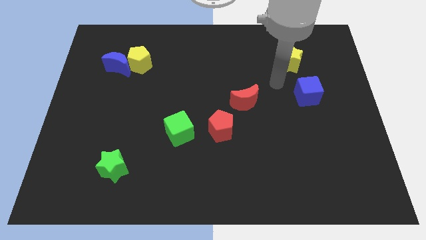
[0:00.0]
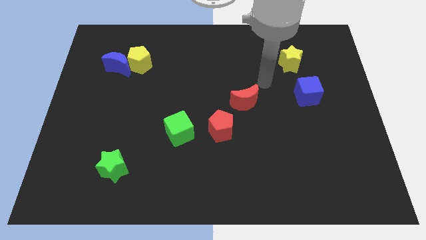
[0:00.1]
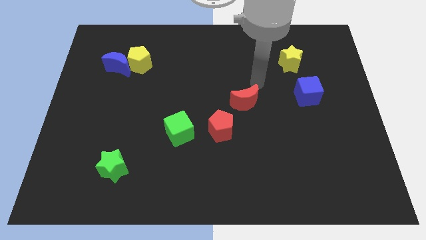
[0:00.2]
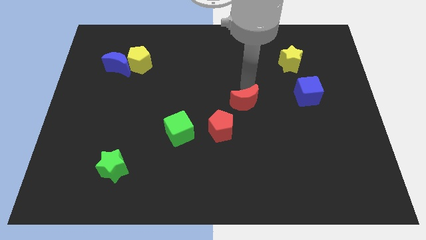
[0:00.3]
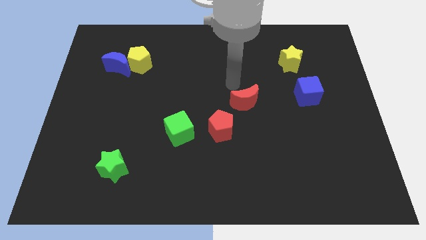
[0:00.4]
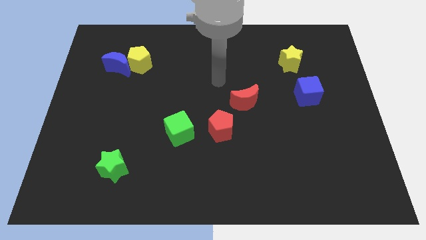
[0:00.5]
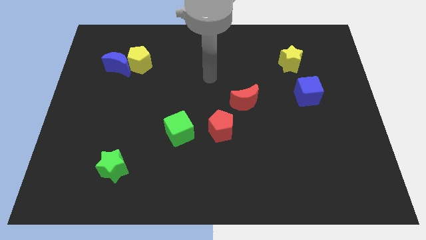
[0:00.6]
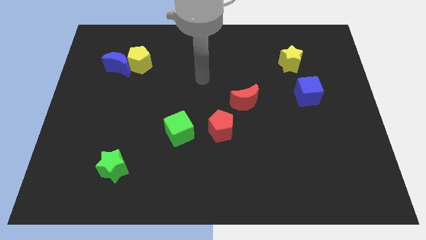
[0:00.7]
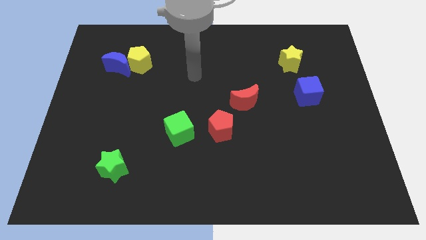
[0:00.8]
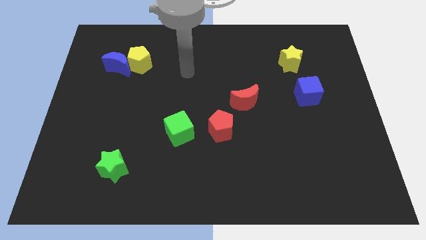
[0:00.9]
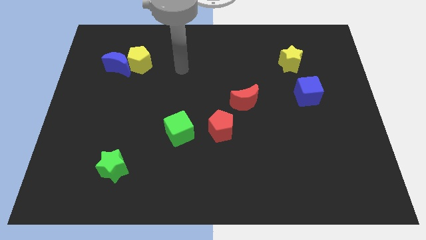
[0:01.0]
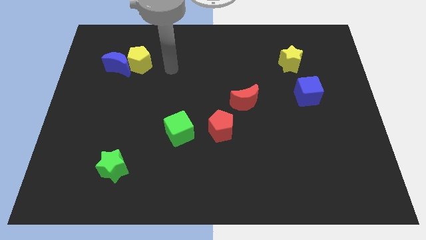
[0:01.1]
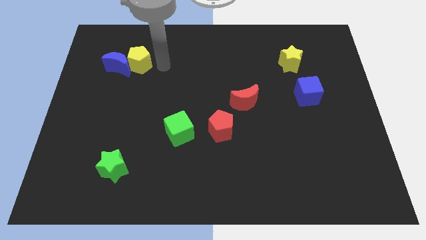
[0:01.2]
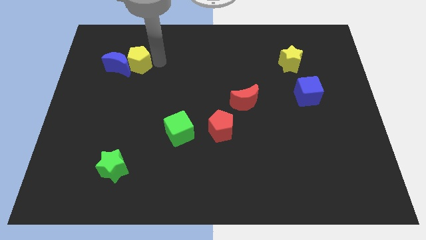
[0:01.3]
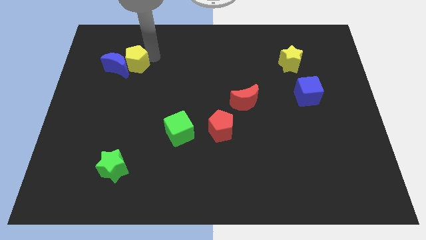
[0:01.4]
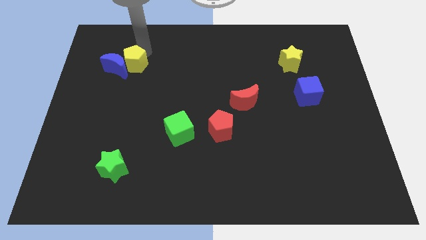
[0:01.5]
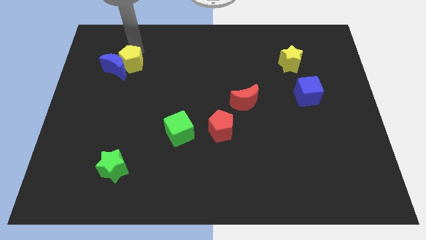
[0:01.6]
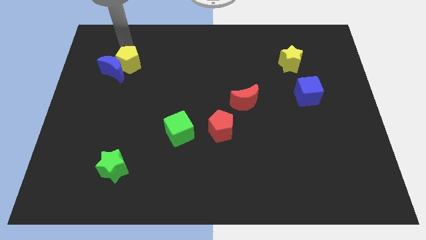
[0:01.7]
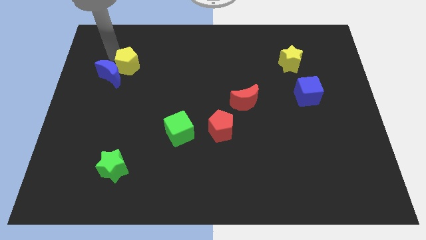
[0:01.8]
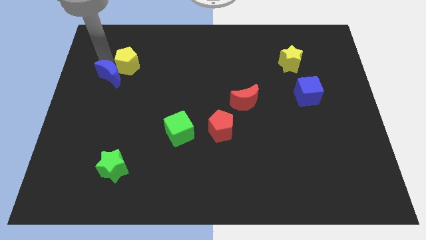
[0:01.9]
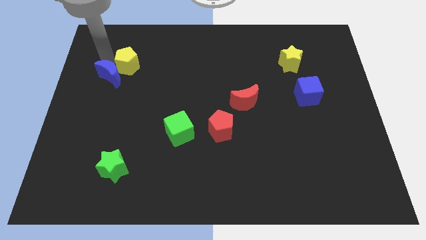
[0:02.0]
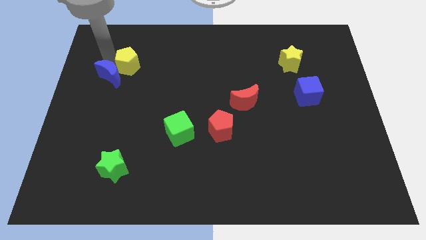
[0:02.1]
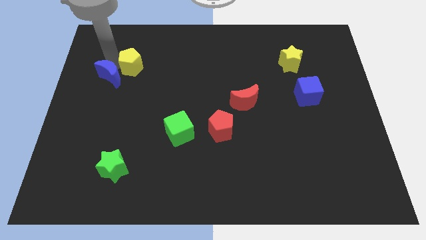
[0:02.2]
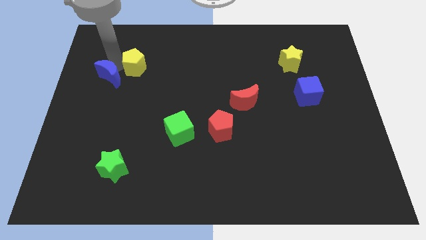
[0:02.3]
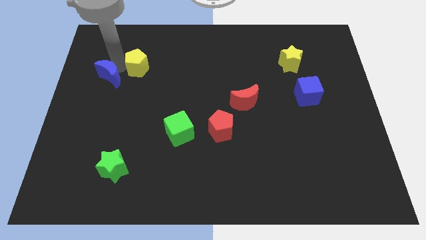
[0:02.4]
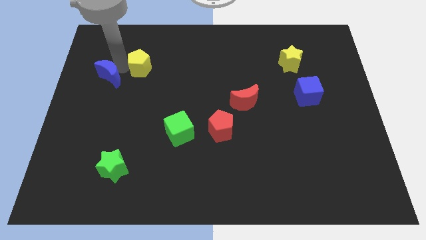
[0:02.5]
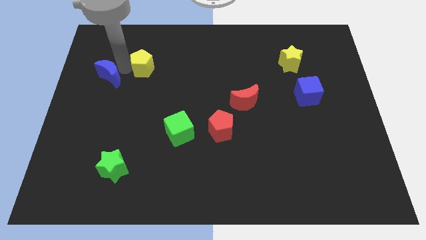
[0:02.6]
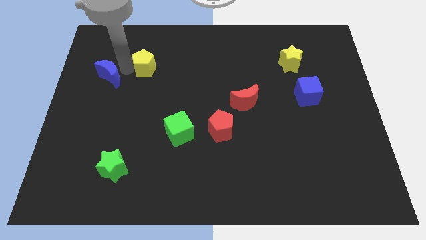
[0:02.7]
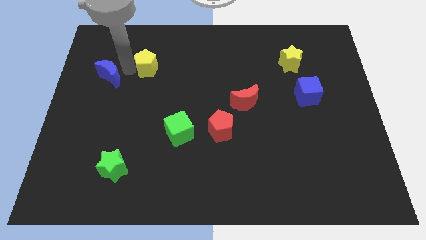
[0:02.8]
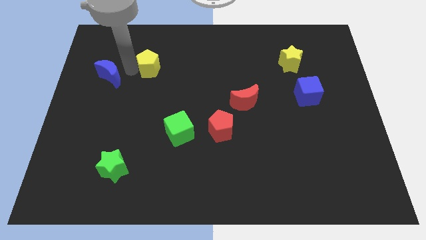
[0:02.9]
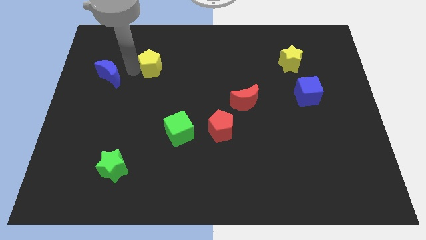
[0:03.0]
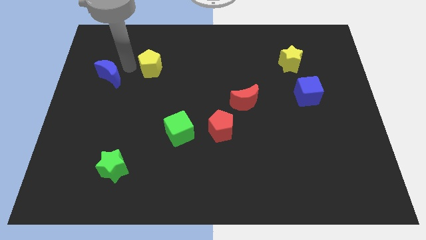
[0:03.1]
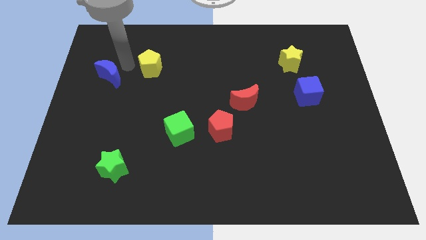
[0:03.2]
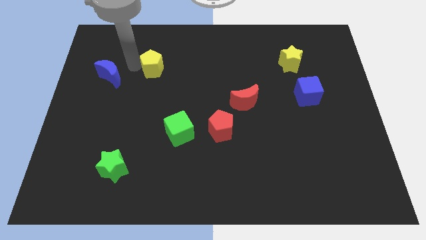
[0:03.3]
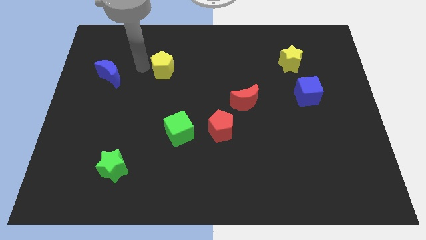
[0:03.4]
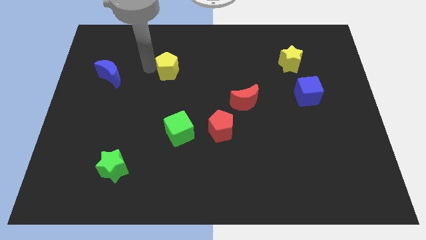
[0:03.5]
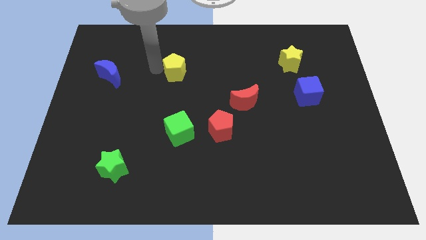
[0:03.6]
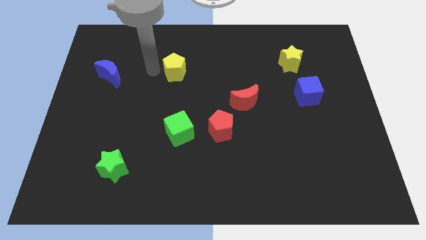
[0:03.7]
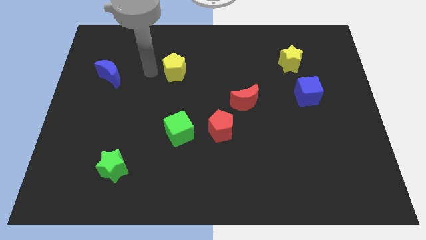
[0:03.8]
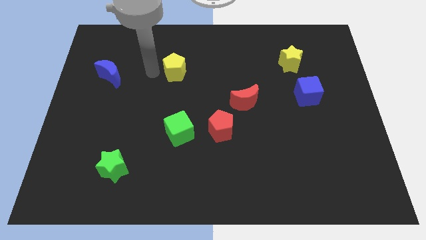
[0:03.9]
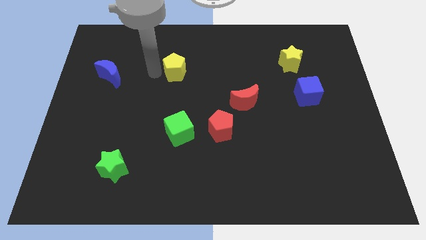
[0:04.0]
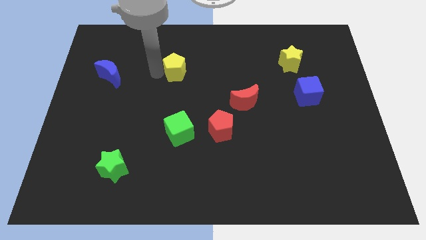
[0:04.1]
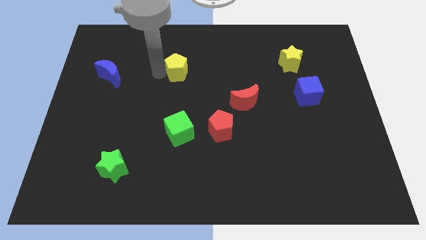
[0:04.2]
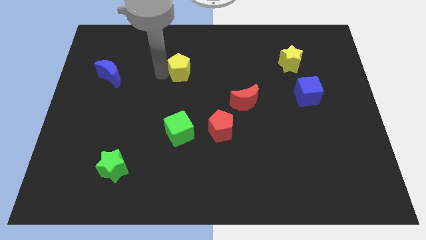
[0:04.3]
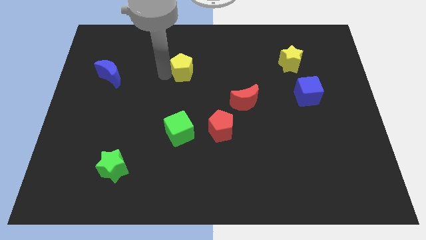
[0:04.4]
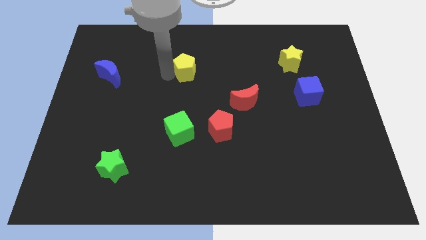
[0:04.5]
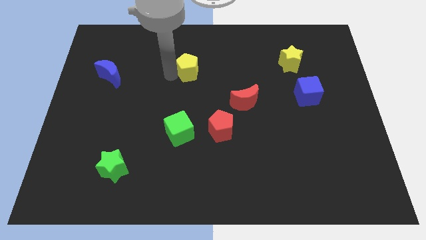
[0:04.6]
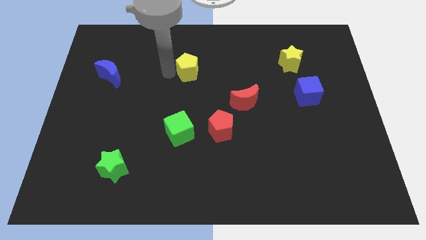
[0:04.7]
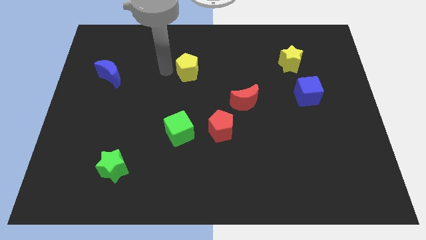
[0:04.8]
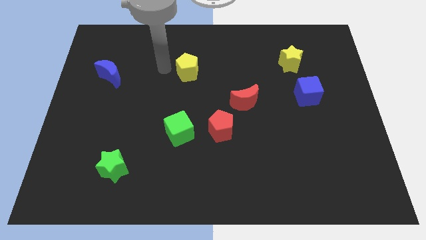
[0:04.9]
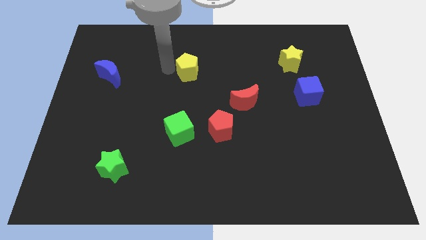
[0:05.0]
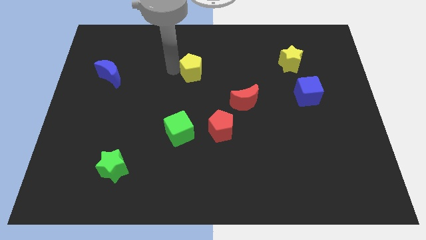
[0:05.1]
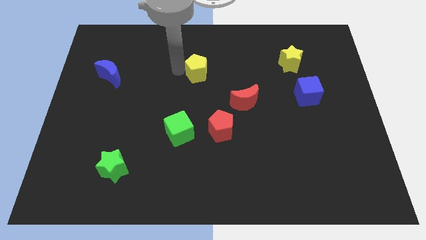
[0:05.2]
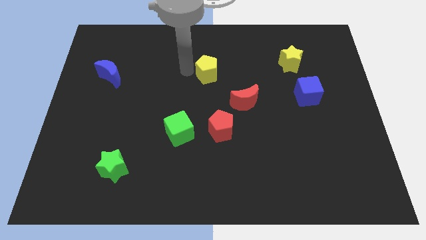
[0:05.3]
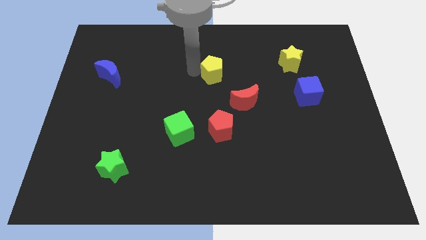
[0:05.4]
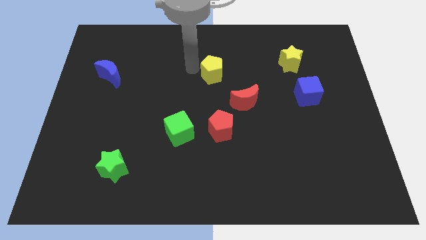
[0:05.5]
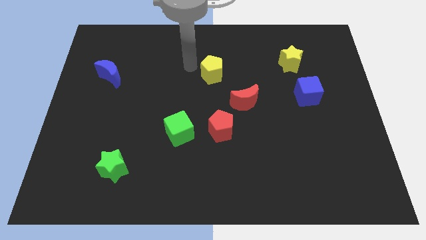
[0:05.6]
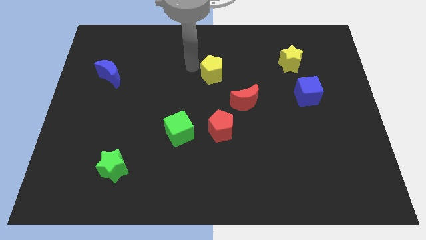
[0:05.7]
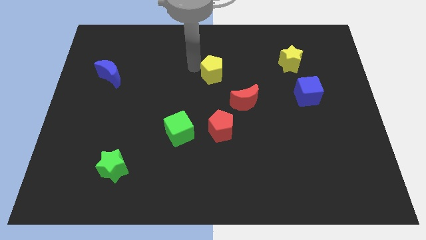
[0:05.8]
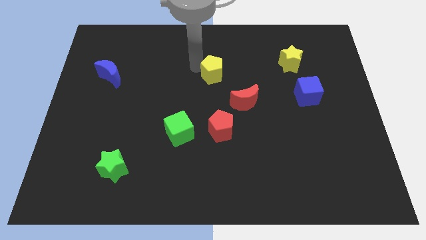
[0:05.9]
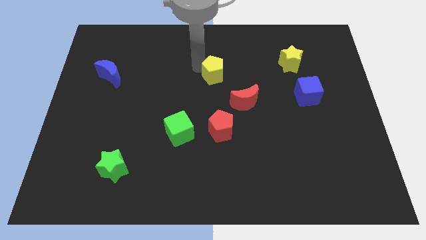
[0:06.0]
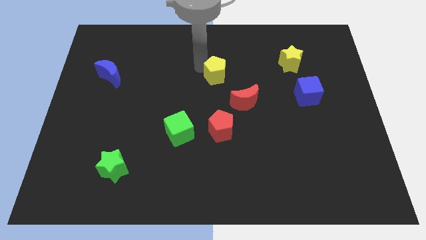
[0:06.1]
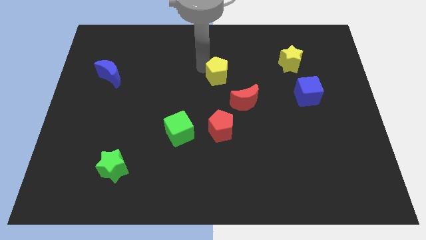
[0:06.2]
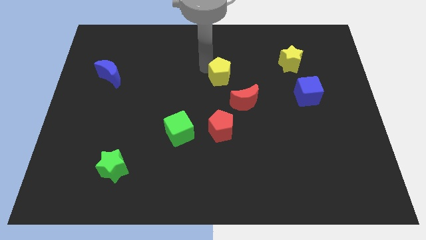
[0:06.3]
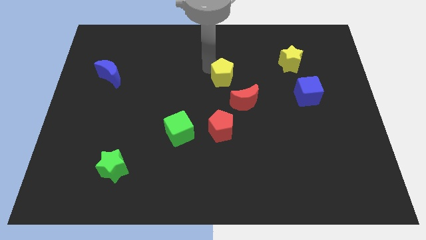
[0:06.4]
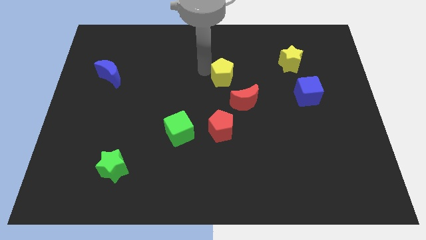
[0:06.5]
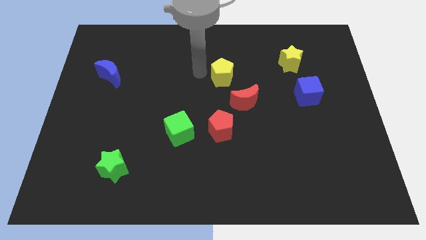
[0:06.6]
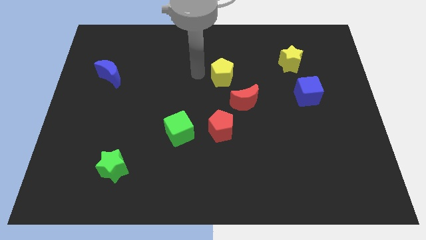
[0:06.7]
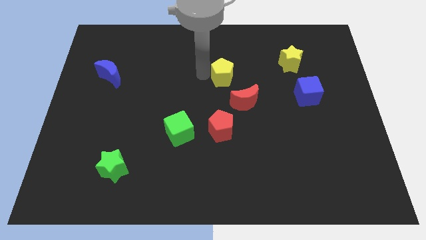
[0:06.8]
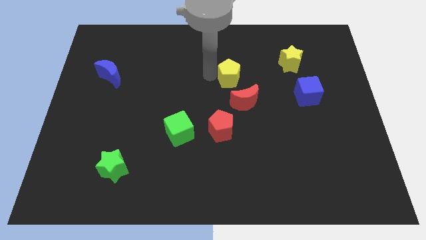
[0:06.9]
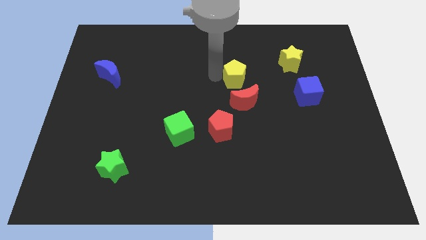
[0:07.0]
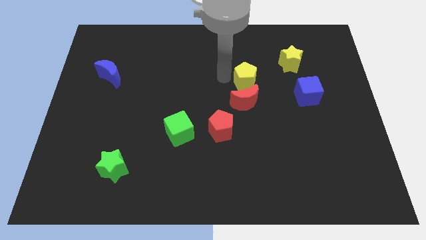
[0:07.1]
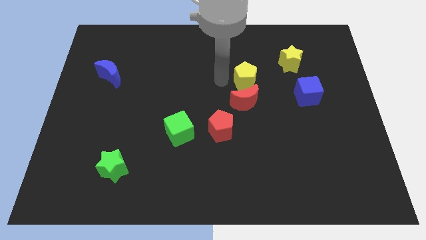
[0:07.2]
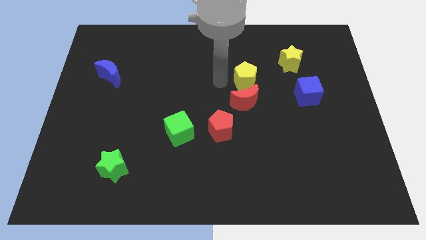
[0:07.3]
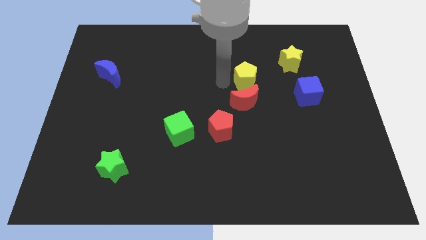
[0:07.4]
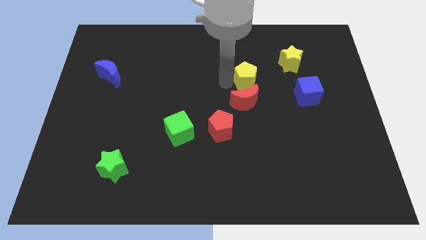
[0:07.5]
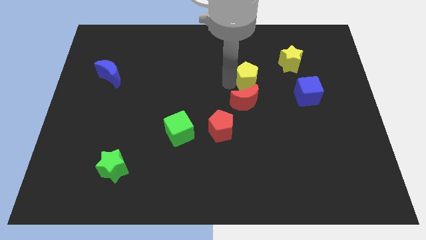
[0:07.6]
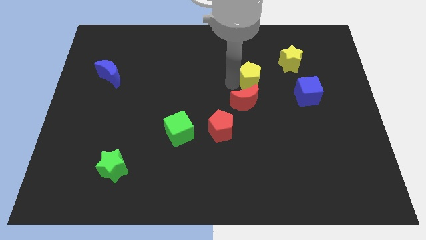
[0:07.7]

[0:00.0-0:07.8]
put the yellow pentagon to the bottom left side of the yellow star

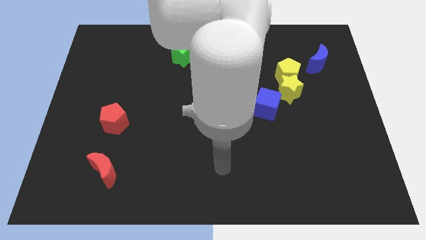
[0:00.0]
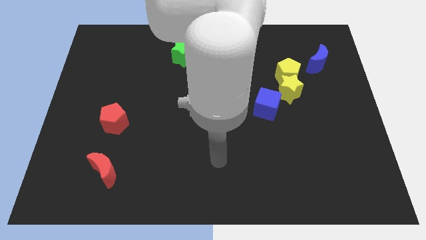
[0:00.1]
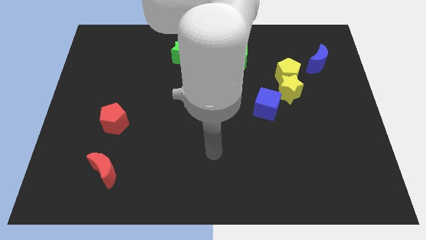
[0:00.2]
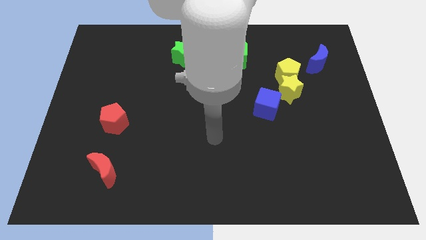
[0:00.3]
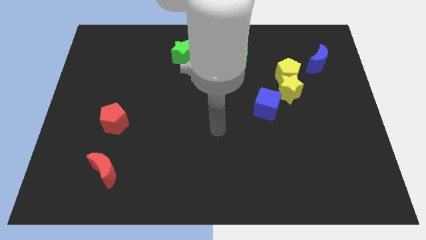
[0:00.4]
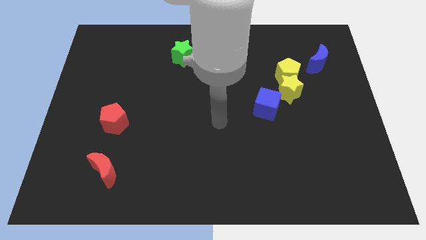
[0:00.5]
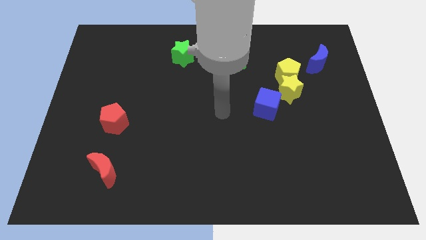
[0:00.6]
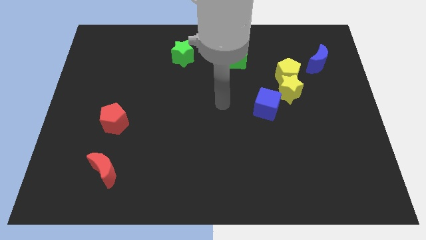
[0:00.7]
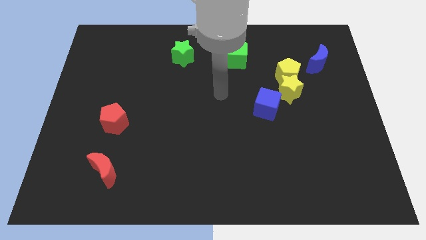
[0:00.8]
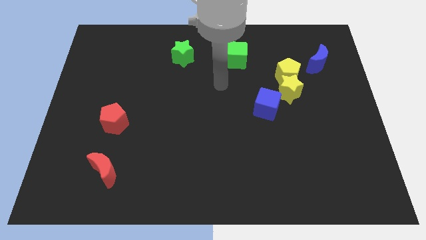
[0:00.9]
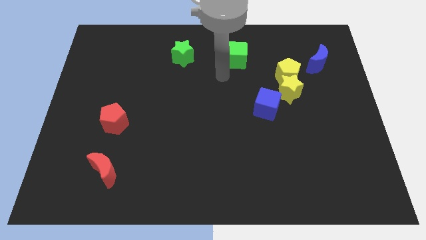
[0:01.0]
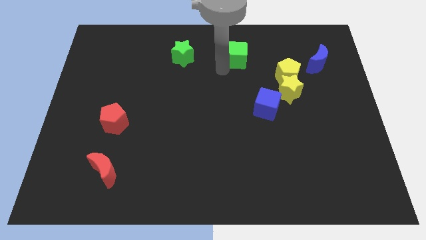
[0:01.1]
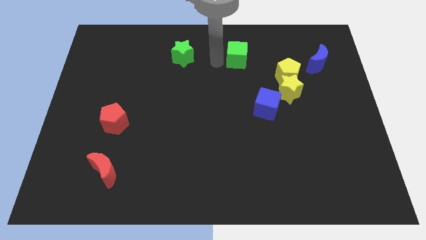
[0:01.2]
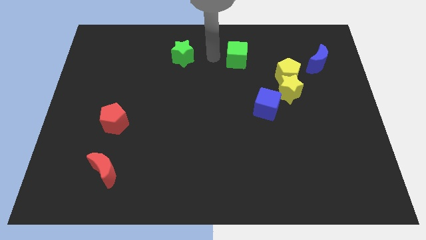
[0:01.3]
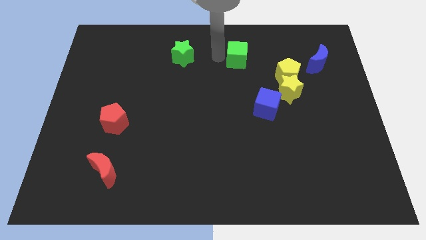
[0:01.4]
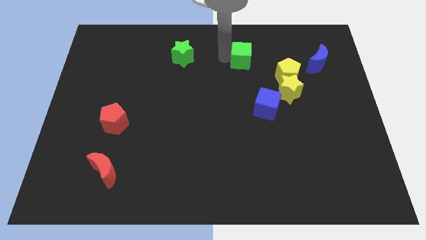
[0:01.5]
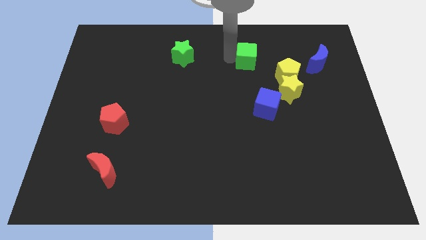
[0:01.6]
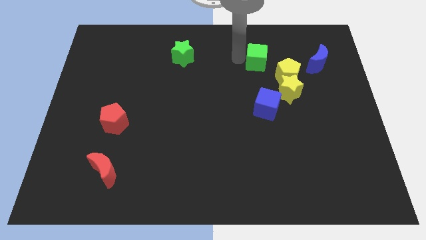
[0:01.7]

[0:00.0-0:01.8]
slide the green cube just left of the blue moon
